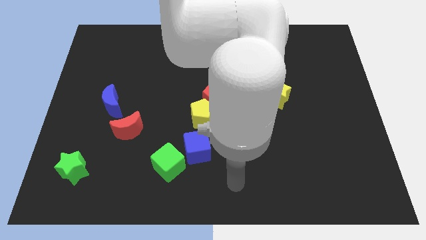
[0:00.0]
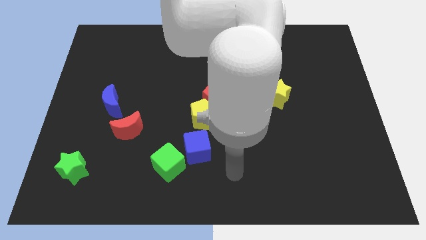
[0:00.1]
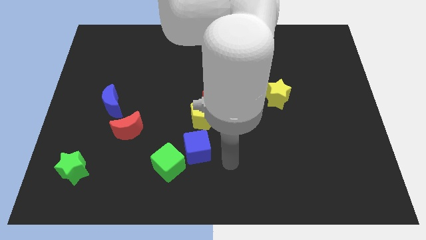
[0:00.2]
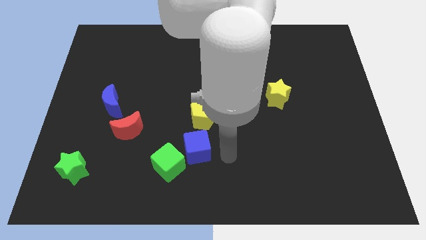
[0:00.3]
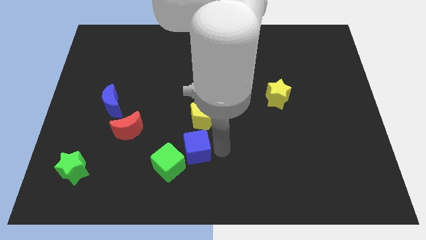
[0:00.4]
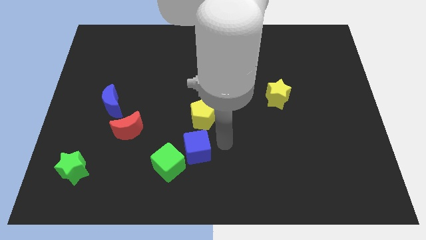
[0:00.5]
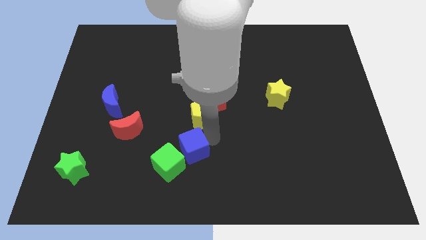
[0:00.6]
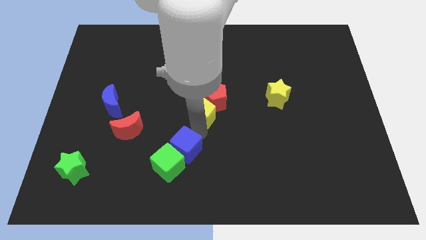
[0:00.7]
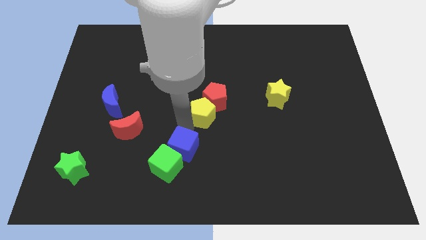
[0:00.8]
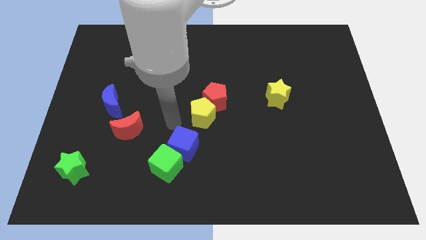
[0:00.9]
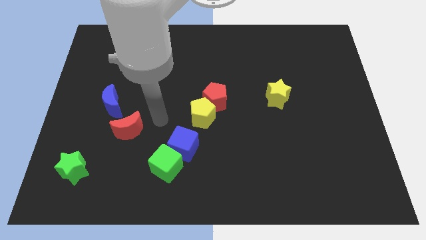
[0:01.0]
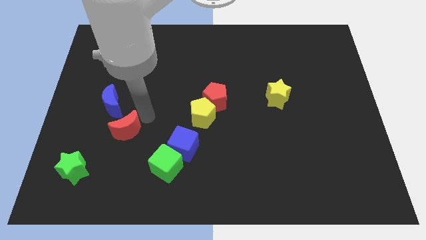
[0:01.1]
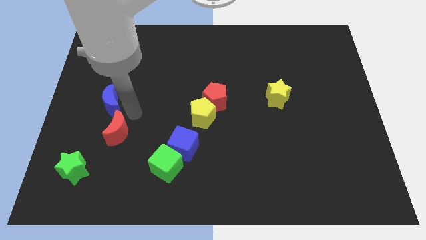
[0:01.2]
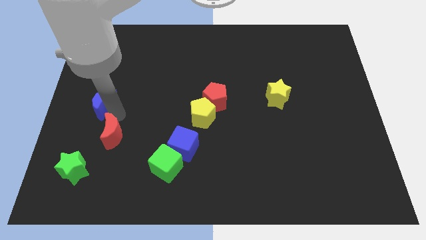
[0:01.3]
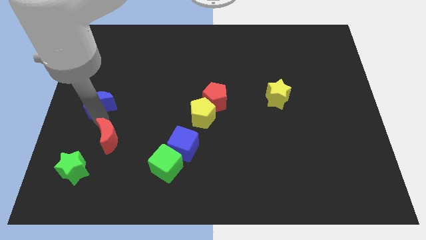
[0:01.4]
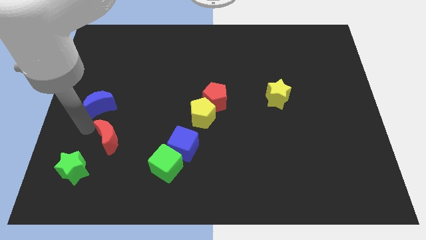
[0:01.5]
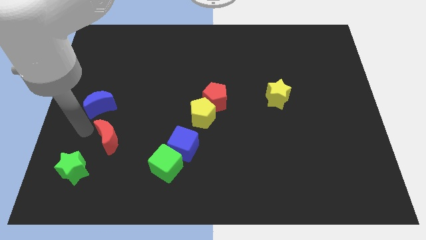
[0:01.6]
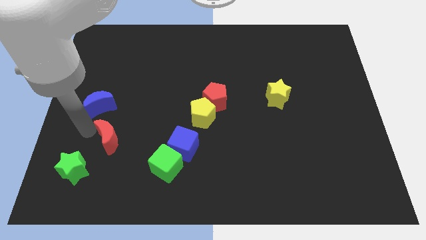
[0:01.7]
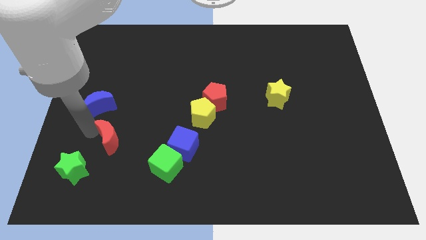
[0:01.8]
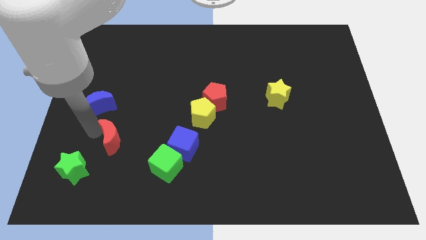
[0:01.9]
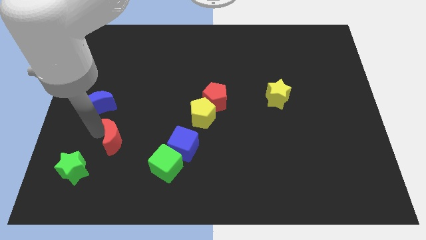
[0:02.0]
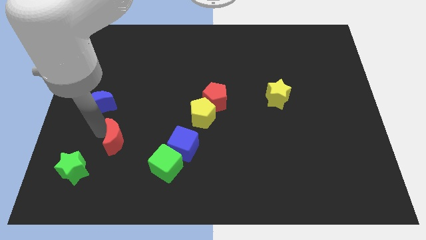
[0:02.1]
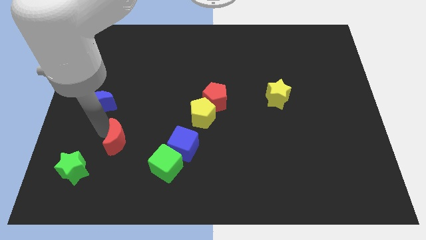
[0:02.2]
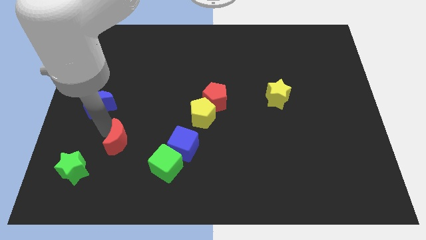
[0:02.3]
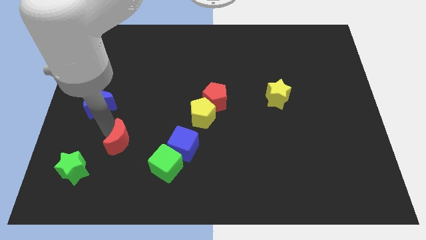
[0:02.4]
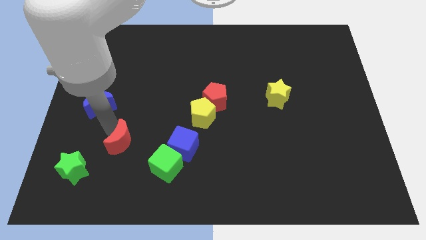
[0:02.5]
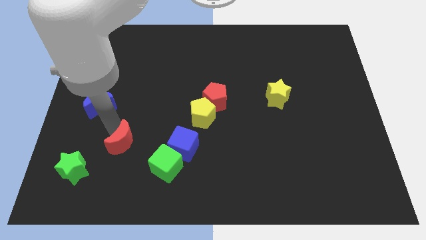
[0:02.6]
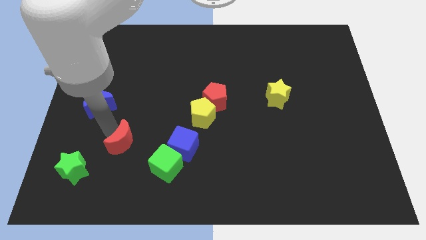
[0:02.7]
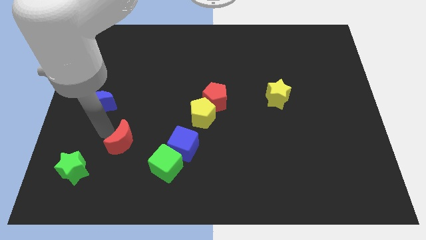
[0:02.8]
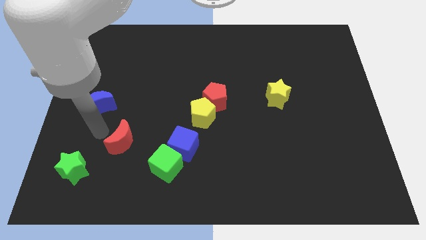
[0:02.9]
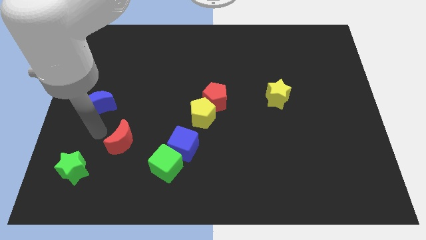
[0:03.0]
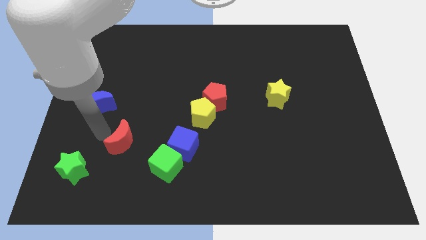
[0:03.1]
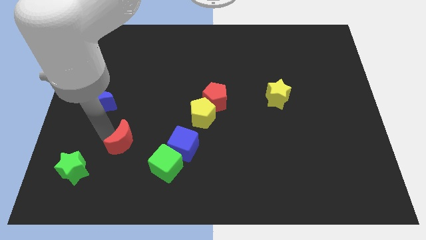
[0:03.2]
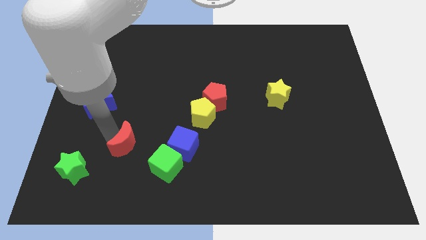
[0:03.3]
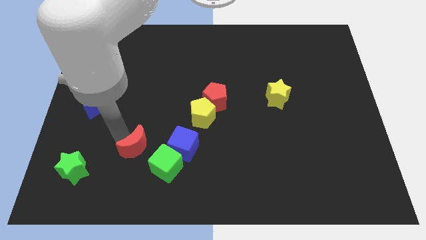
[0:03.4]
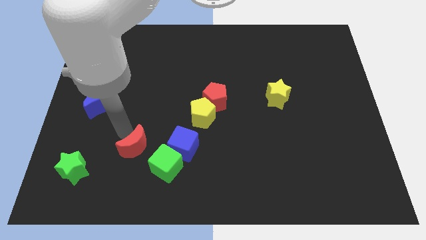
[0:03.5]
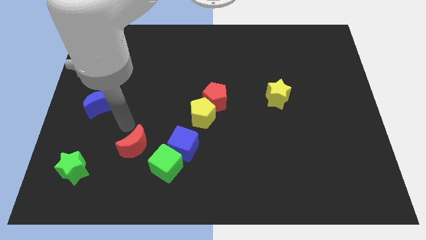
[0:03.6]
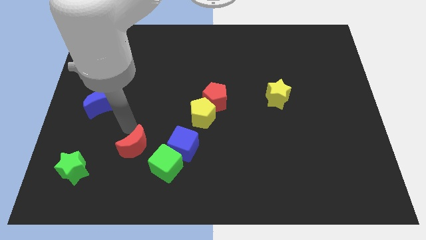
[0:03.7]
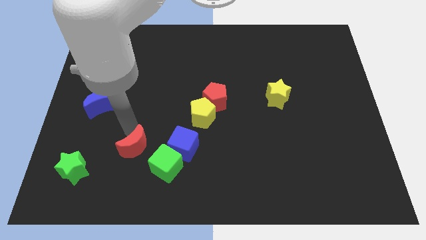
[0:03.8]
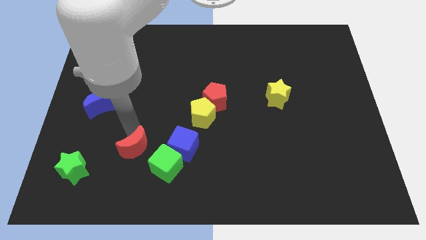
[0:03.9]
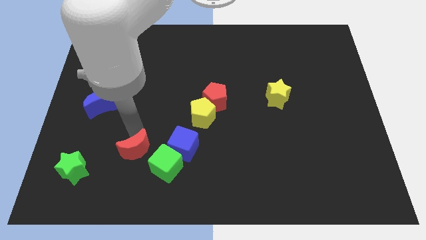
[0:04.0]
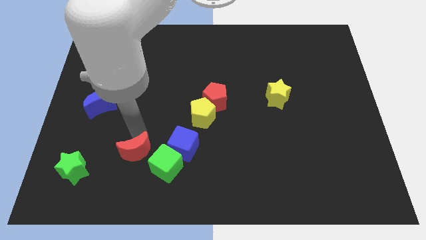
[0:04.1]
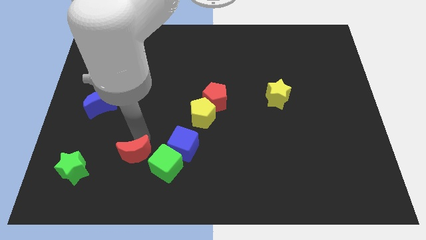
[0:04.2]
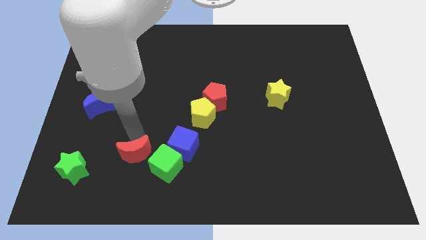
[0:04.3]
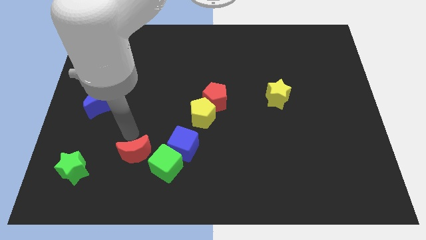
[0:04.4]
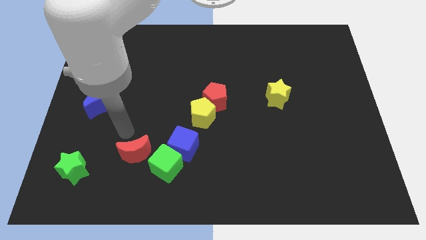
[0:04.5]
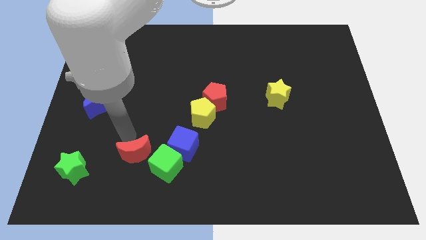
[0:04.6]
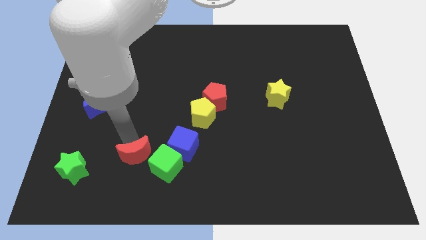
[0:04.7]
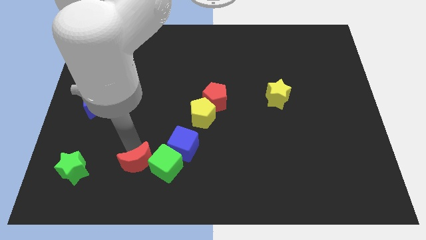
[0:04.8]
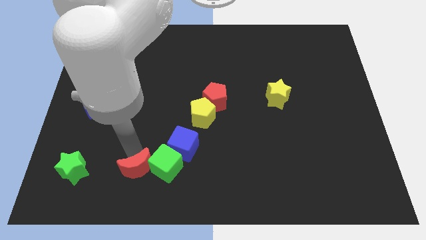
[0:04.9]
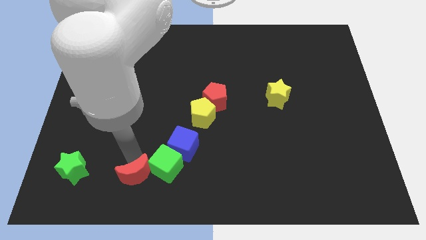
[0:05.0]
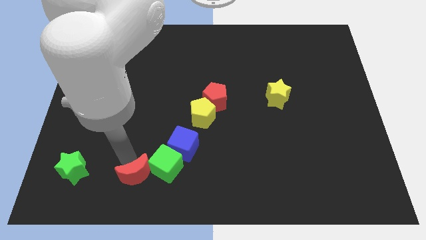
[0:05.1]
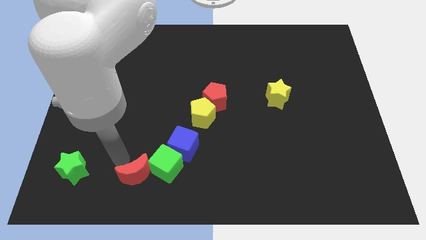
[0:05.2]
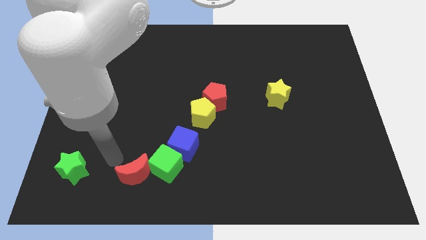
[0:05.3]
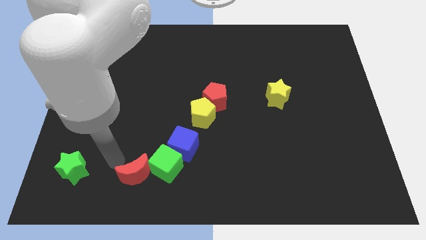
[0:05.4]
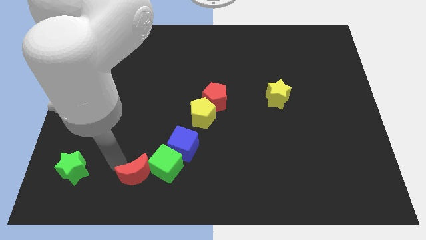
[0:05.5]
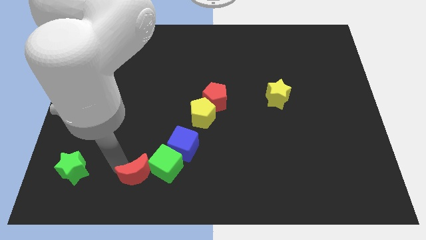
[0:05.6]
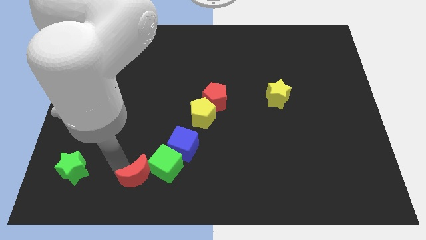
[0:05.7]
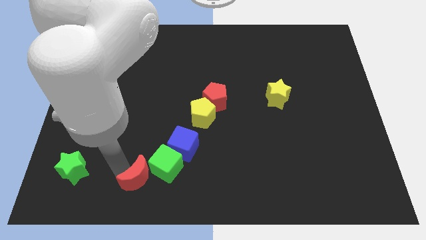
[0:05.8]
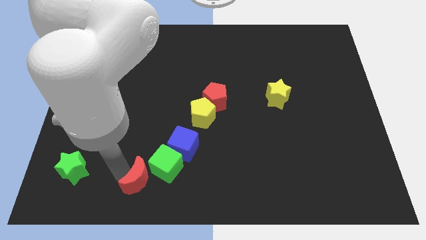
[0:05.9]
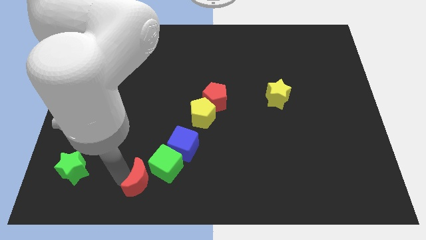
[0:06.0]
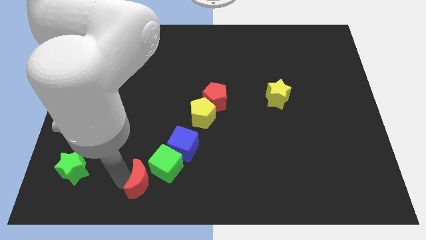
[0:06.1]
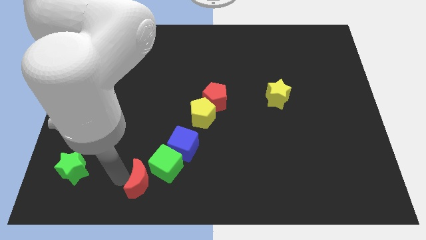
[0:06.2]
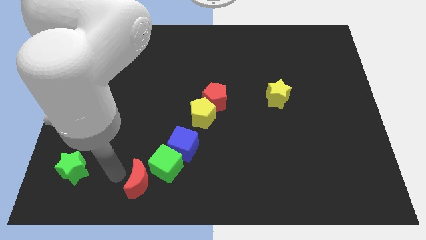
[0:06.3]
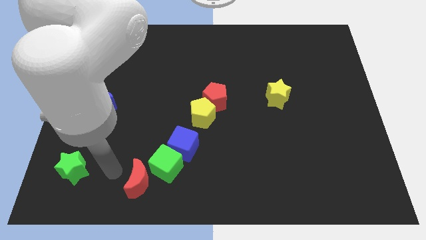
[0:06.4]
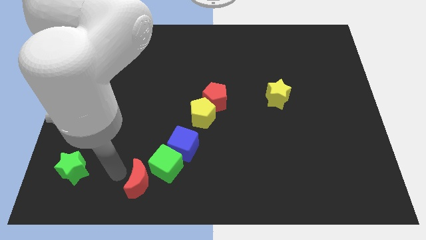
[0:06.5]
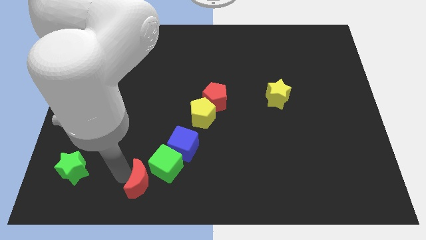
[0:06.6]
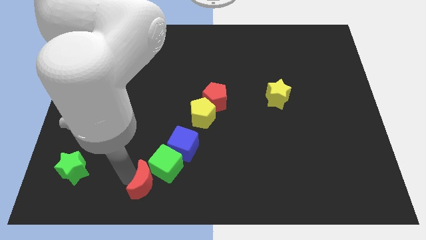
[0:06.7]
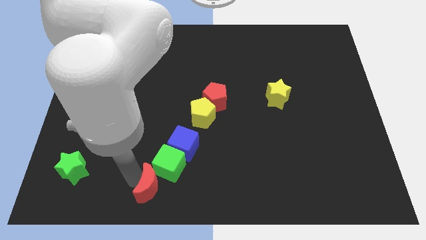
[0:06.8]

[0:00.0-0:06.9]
push the red moon to the bottom
